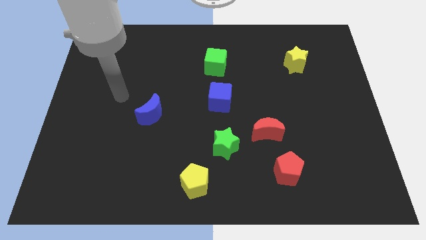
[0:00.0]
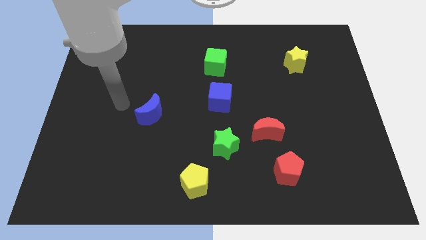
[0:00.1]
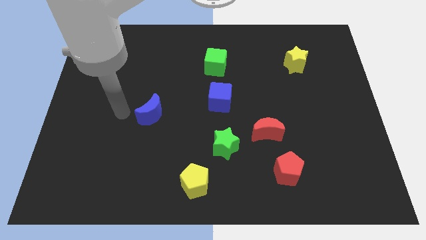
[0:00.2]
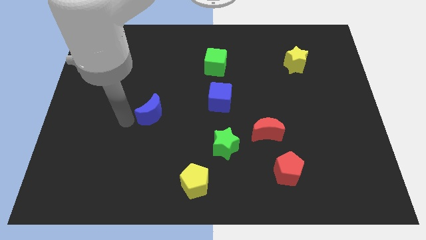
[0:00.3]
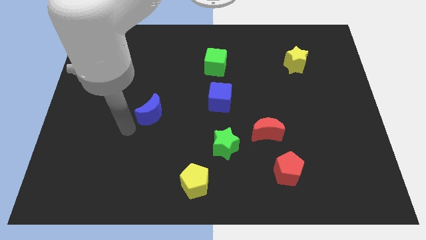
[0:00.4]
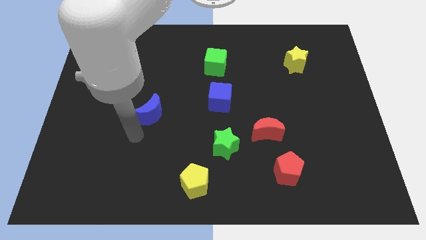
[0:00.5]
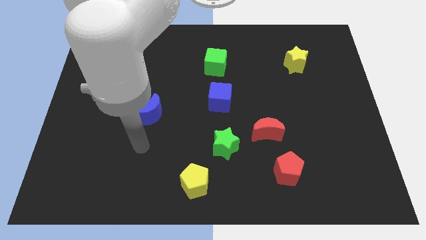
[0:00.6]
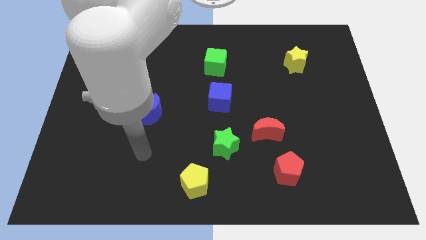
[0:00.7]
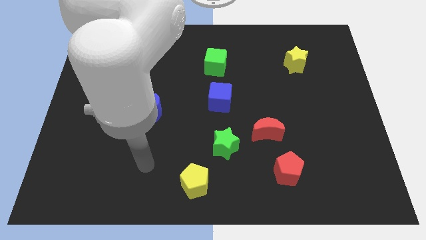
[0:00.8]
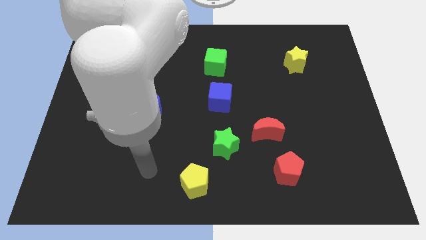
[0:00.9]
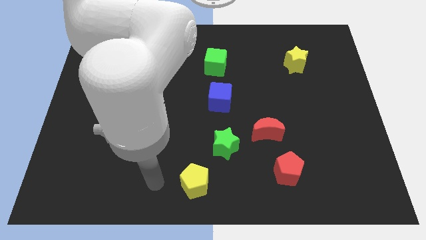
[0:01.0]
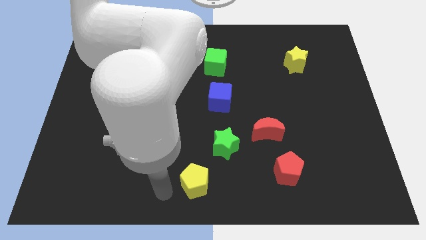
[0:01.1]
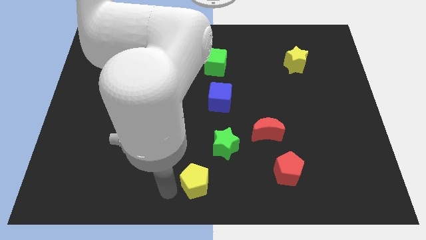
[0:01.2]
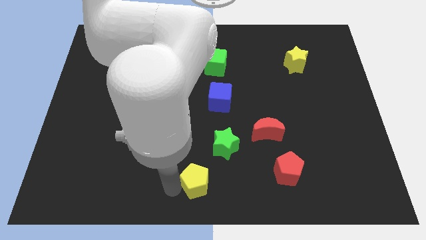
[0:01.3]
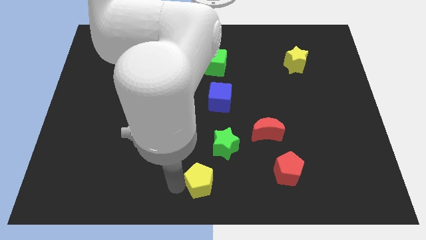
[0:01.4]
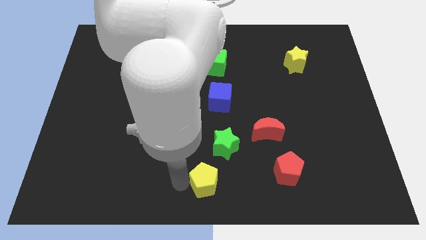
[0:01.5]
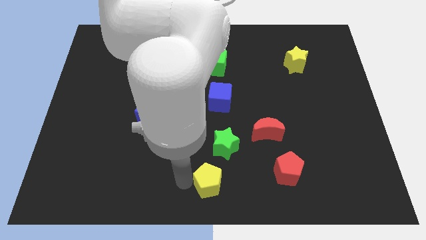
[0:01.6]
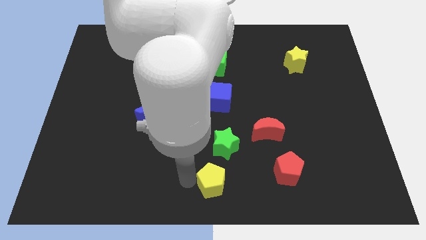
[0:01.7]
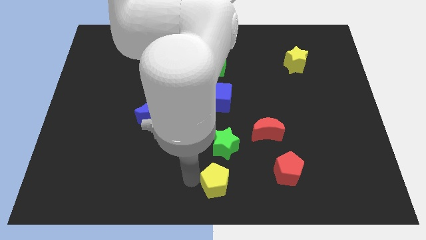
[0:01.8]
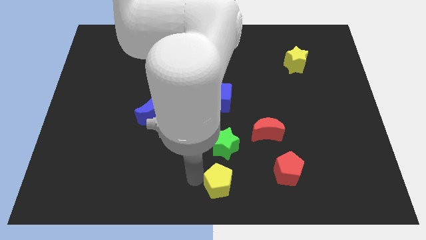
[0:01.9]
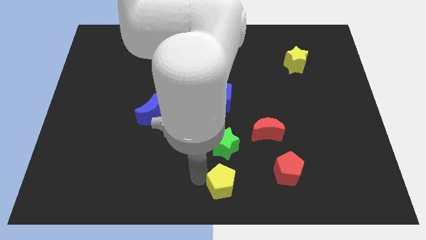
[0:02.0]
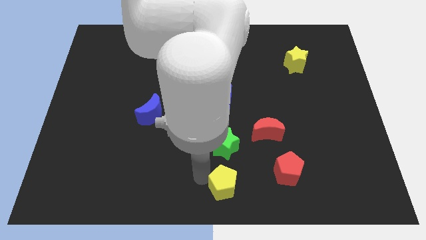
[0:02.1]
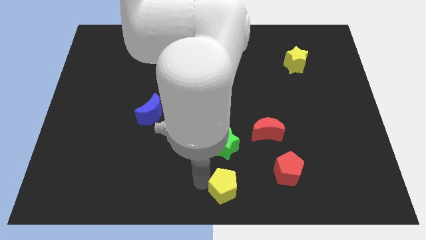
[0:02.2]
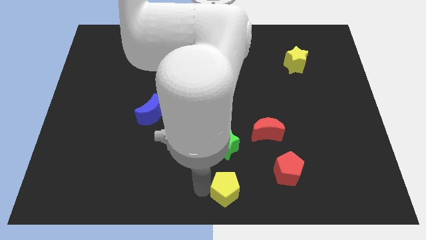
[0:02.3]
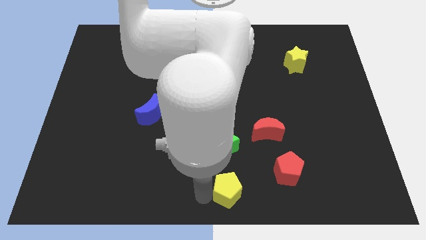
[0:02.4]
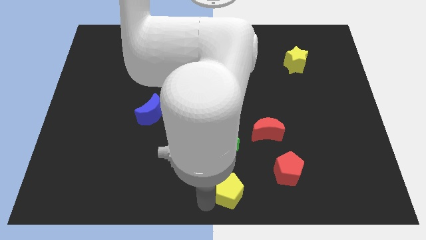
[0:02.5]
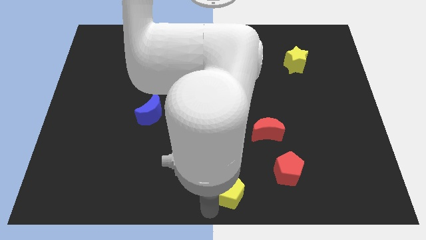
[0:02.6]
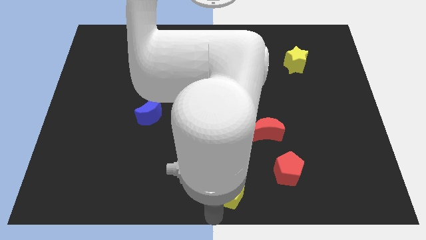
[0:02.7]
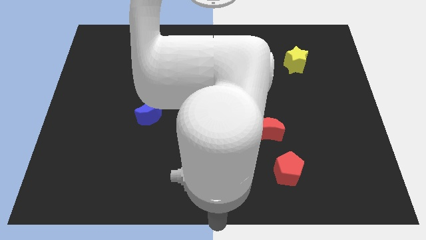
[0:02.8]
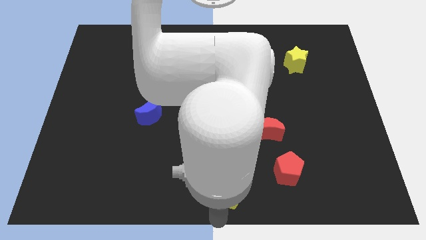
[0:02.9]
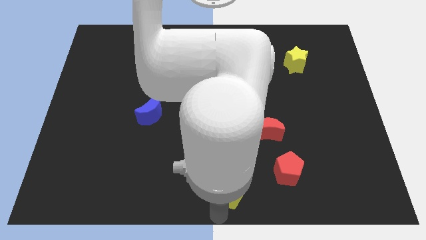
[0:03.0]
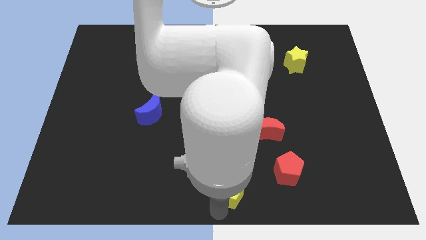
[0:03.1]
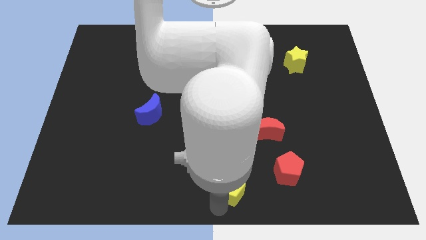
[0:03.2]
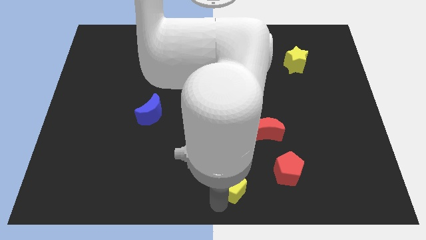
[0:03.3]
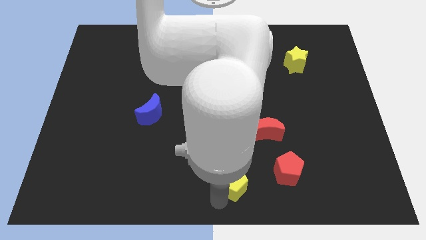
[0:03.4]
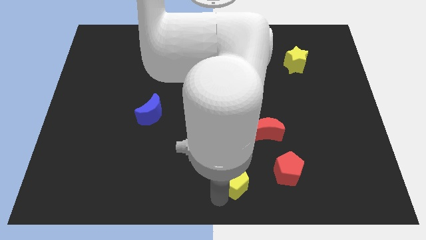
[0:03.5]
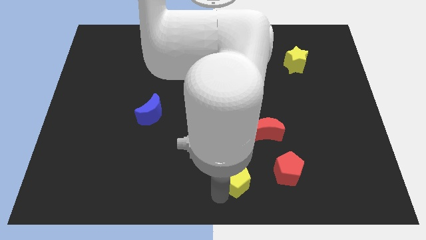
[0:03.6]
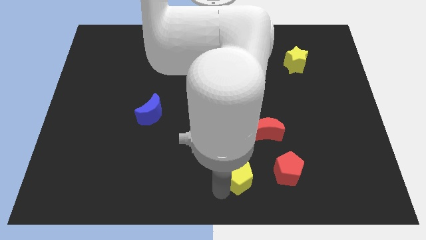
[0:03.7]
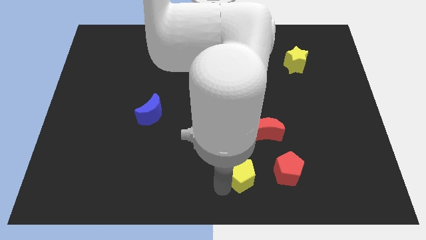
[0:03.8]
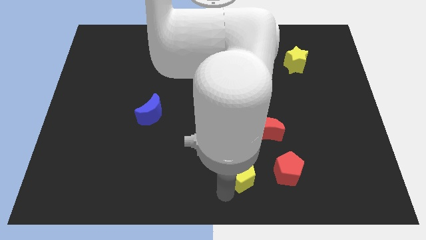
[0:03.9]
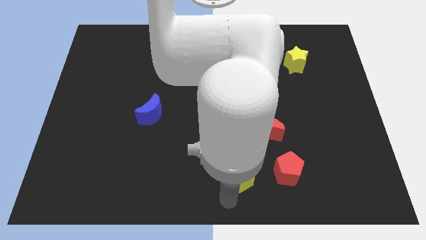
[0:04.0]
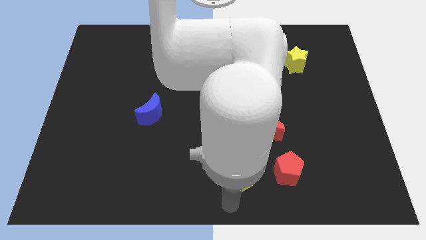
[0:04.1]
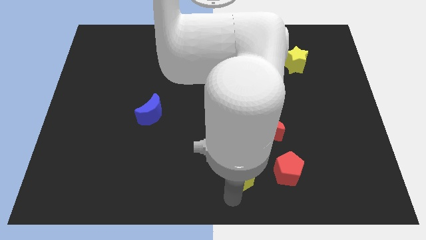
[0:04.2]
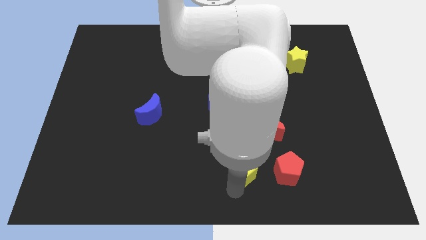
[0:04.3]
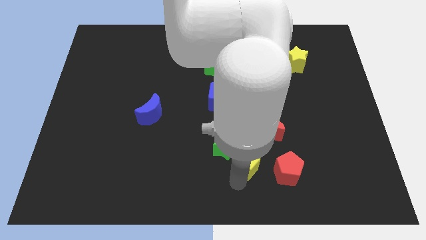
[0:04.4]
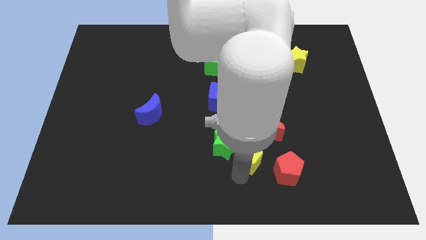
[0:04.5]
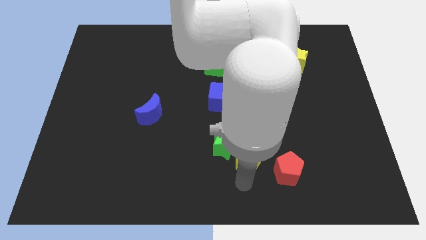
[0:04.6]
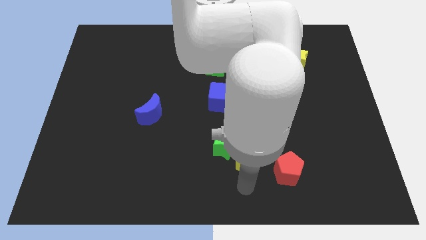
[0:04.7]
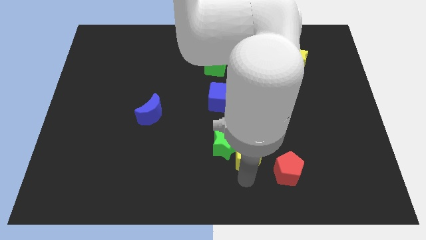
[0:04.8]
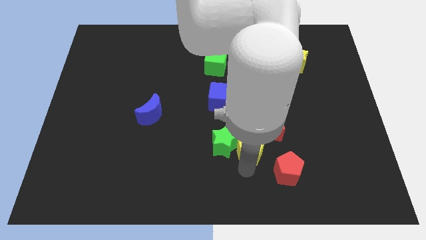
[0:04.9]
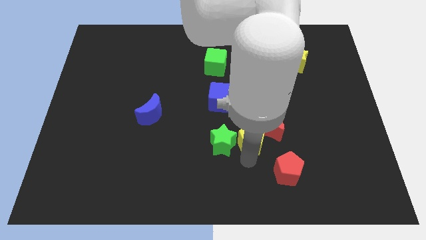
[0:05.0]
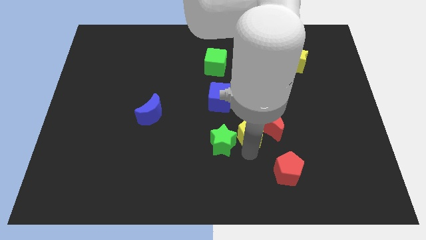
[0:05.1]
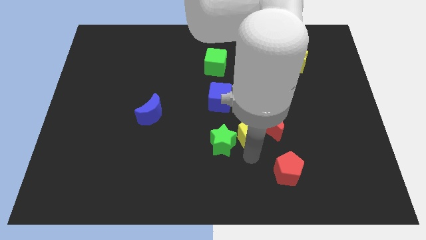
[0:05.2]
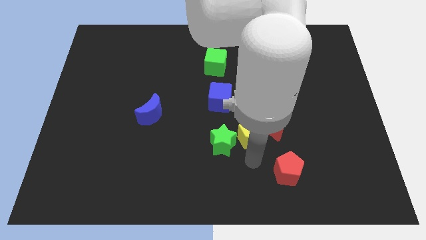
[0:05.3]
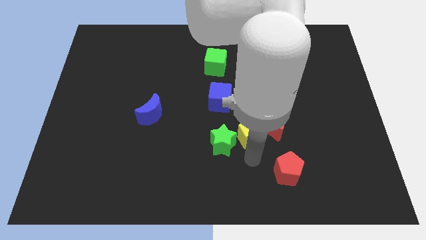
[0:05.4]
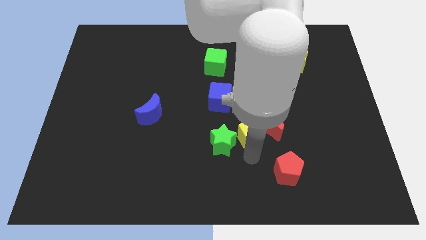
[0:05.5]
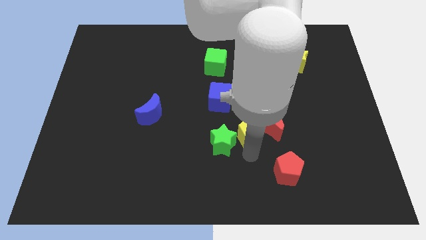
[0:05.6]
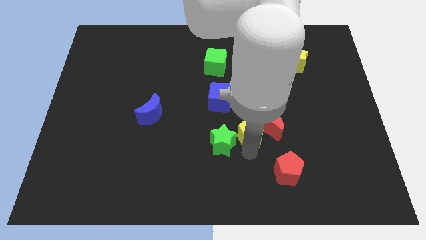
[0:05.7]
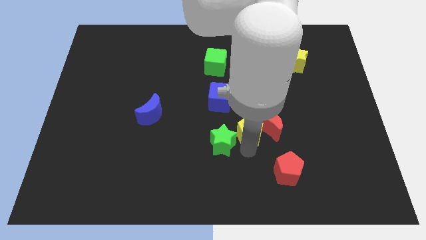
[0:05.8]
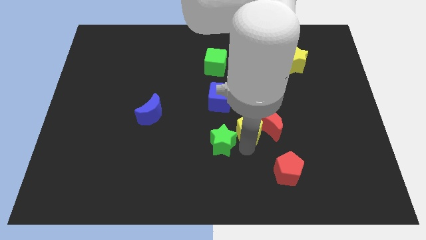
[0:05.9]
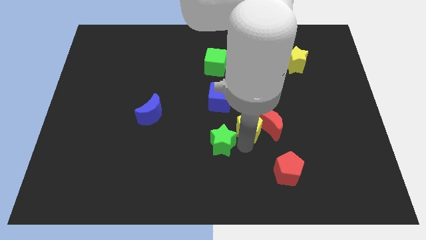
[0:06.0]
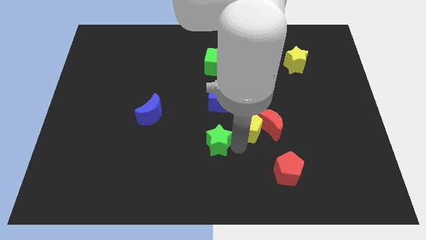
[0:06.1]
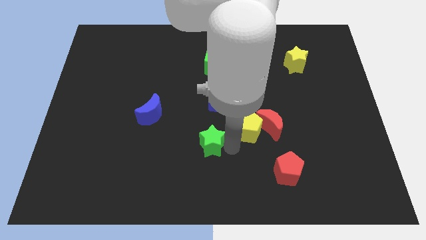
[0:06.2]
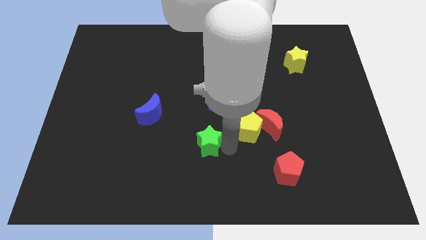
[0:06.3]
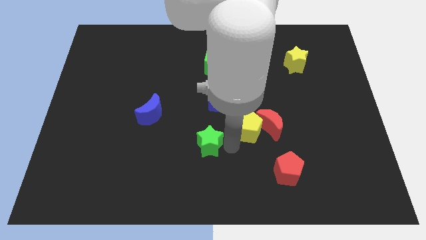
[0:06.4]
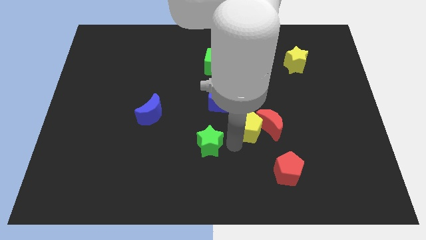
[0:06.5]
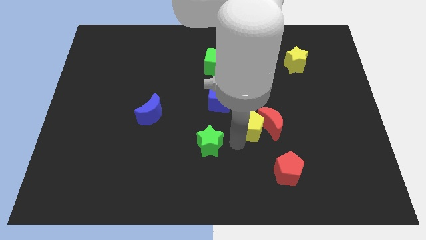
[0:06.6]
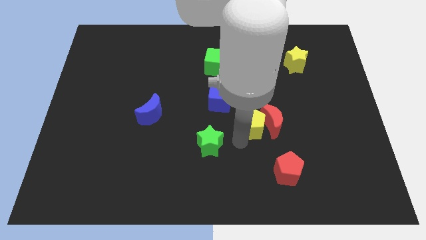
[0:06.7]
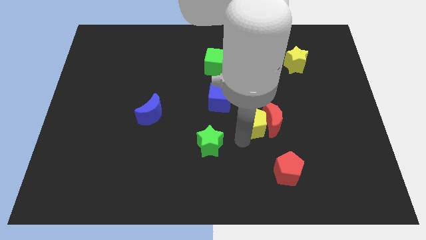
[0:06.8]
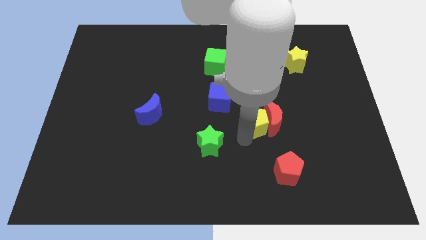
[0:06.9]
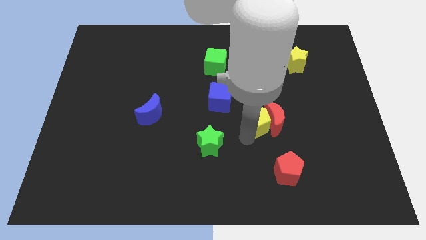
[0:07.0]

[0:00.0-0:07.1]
slide the yellow pentagon upwards and right diagonally

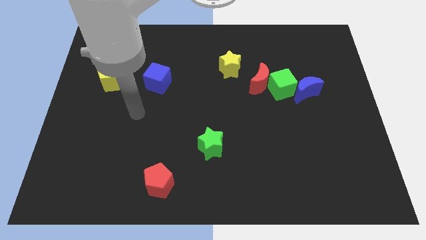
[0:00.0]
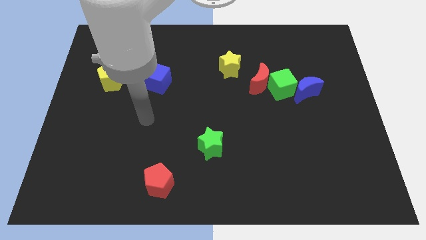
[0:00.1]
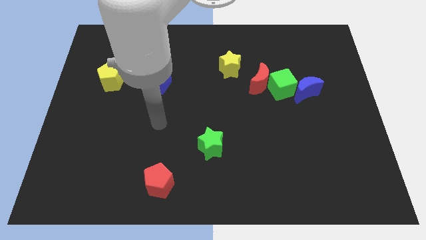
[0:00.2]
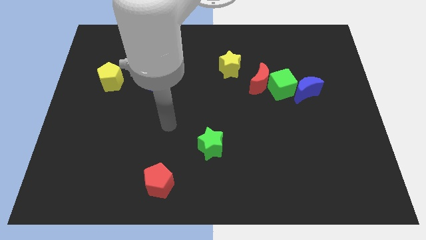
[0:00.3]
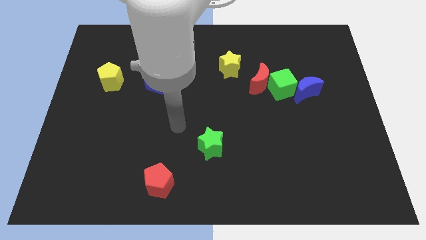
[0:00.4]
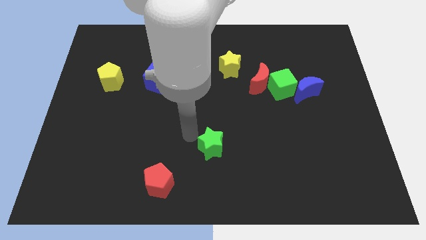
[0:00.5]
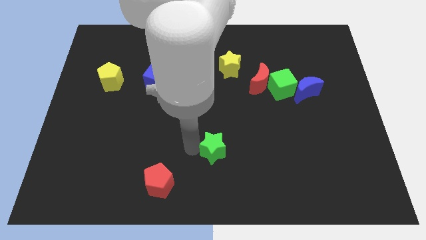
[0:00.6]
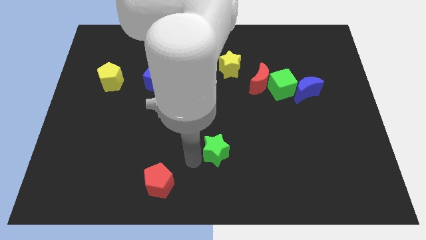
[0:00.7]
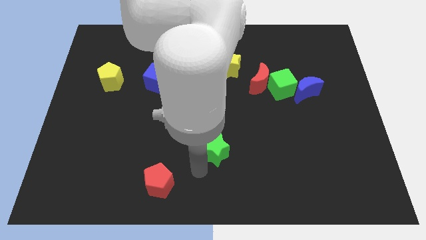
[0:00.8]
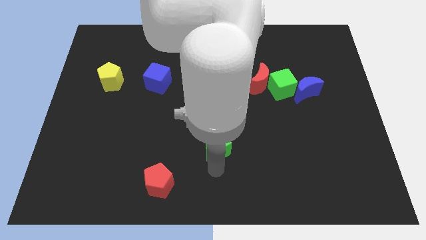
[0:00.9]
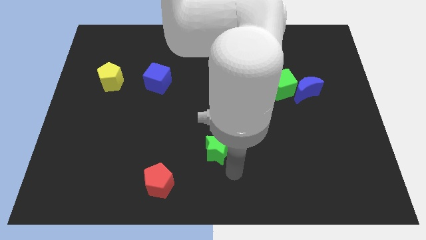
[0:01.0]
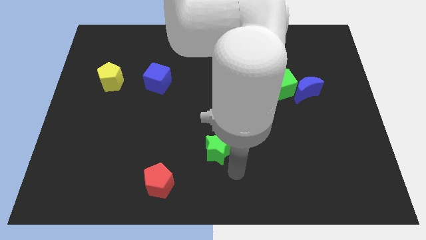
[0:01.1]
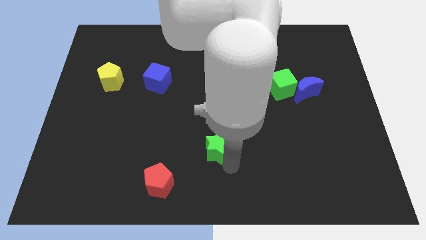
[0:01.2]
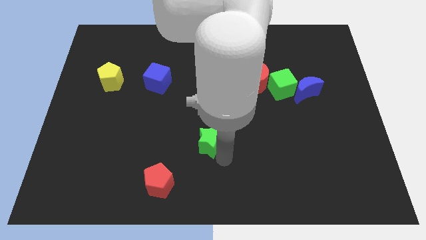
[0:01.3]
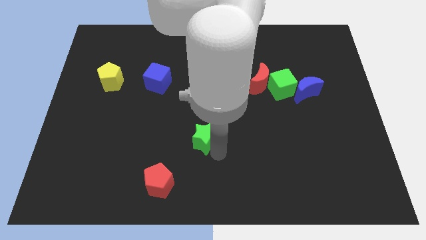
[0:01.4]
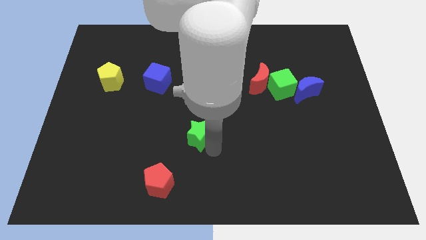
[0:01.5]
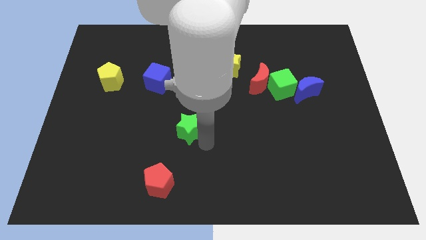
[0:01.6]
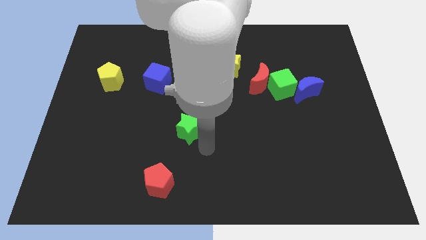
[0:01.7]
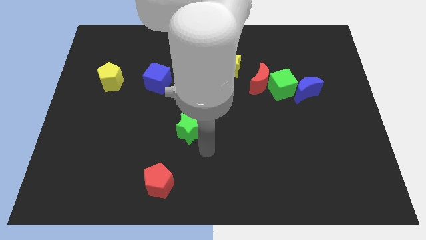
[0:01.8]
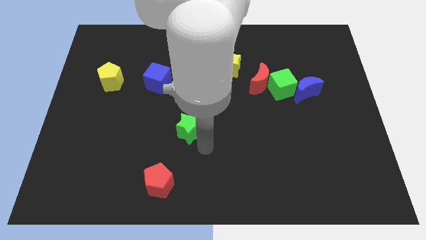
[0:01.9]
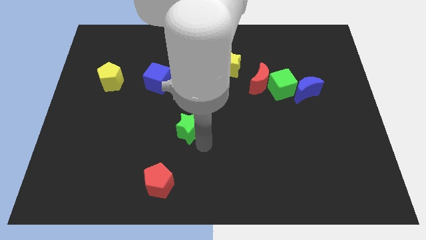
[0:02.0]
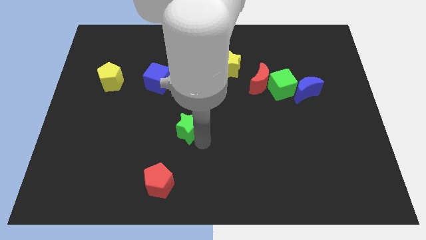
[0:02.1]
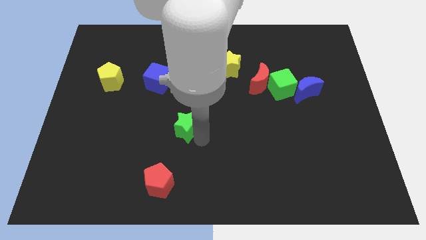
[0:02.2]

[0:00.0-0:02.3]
slide the green star a bit up and left diagonally
